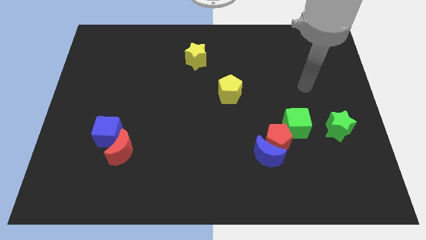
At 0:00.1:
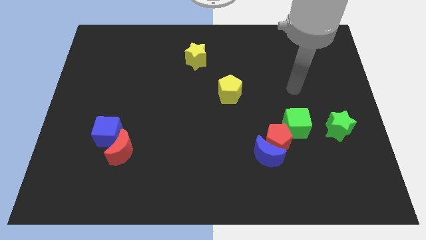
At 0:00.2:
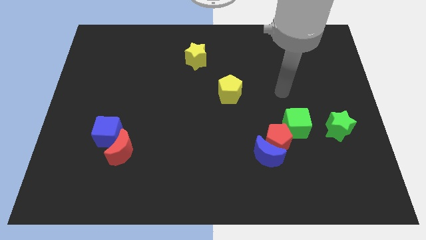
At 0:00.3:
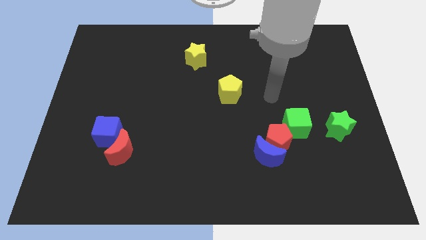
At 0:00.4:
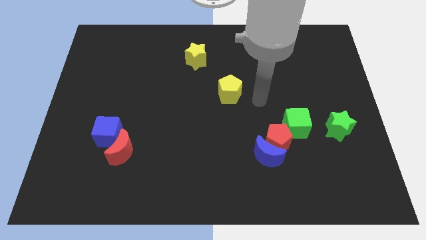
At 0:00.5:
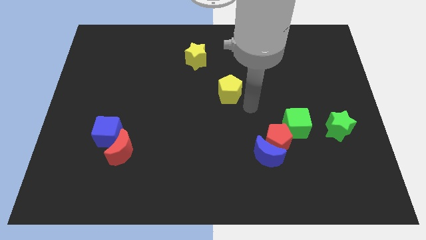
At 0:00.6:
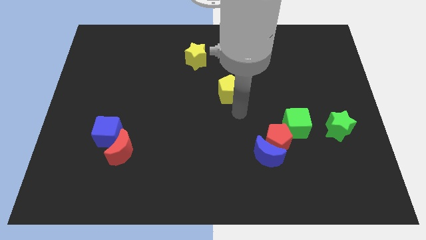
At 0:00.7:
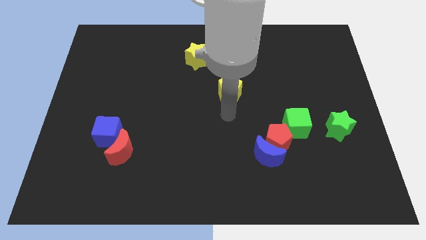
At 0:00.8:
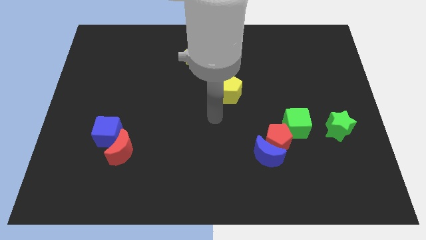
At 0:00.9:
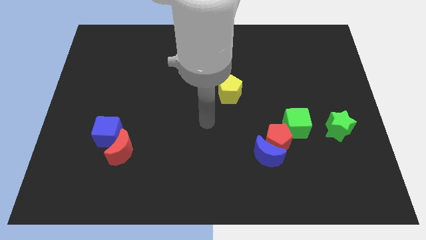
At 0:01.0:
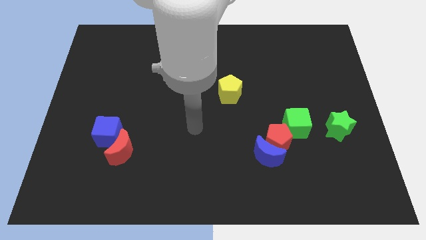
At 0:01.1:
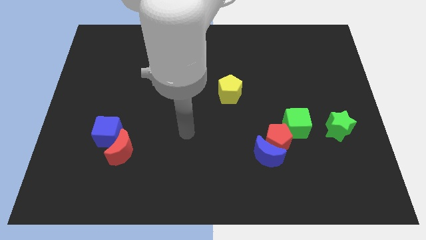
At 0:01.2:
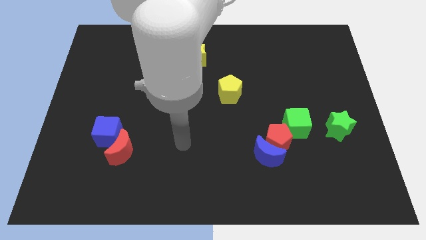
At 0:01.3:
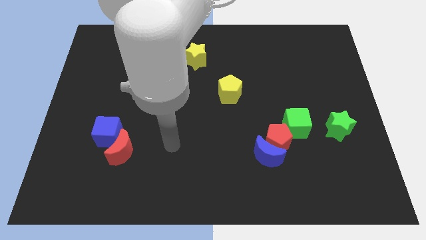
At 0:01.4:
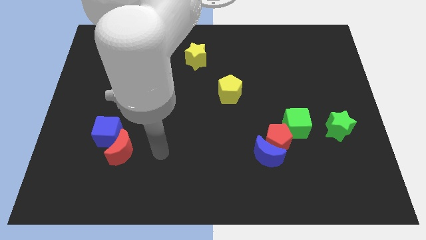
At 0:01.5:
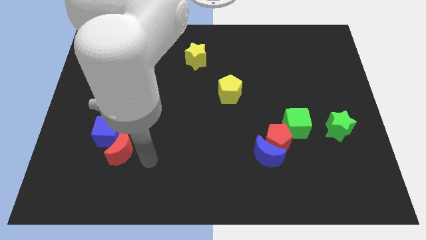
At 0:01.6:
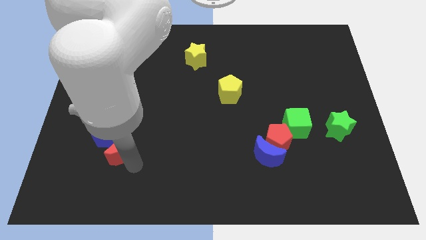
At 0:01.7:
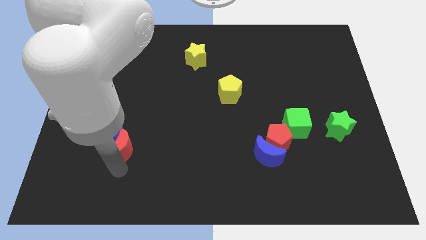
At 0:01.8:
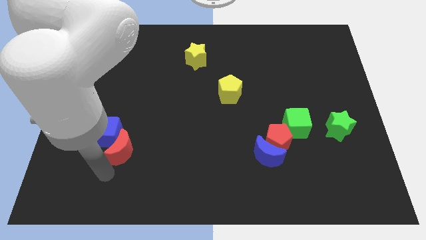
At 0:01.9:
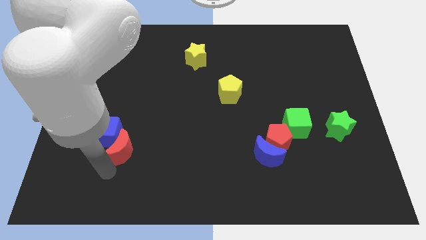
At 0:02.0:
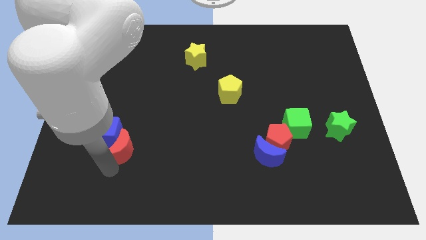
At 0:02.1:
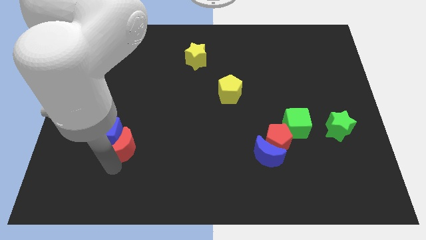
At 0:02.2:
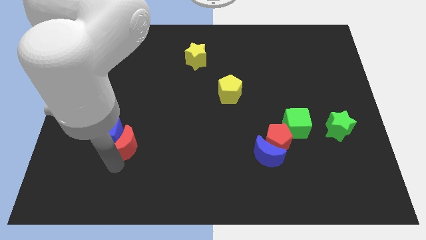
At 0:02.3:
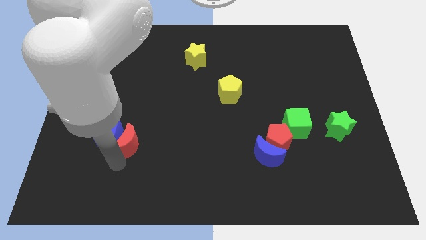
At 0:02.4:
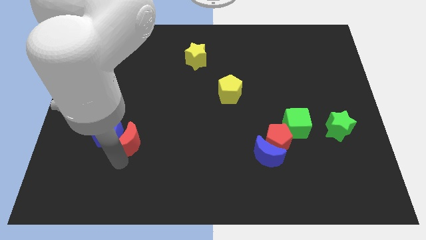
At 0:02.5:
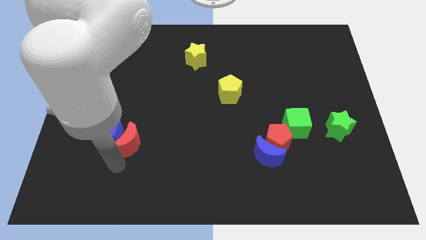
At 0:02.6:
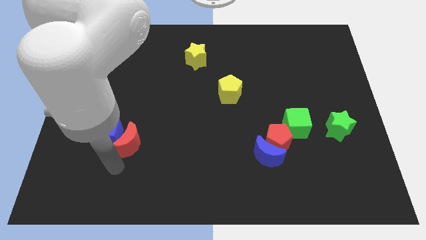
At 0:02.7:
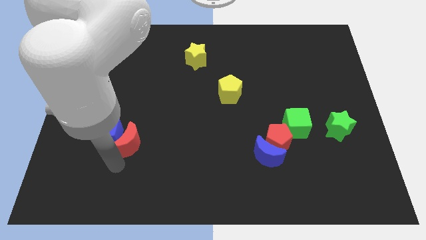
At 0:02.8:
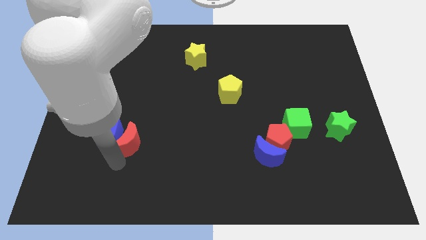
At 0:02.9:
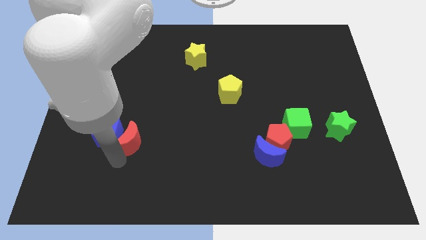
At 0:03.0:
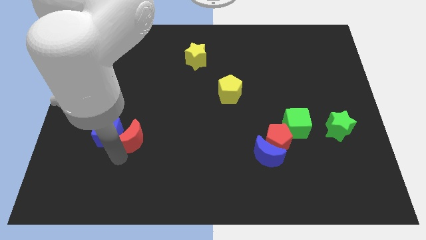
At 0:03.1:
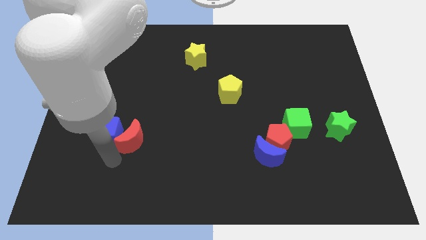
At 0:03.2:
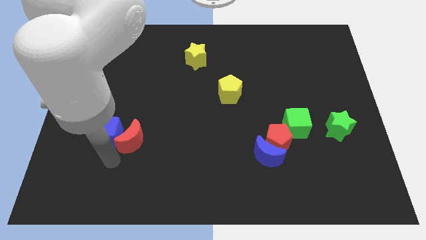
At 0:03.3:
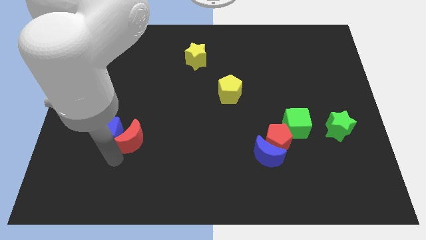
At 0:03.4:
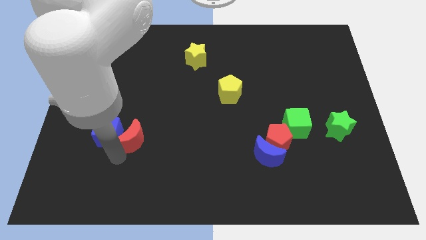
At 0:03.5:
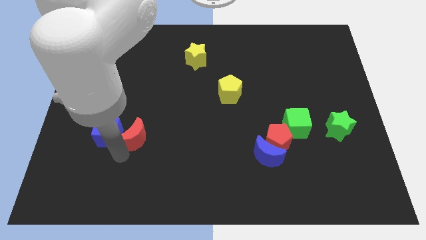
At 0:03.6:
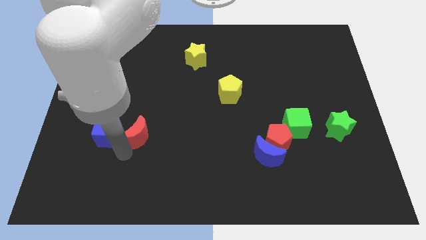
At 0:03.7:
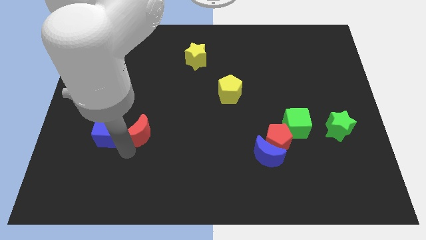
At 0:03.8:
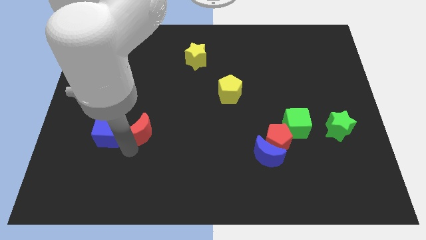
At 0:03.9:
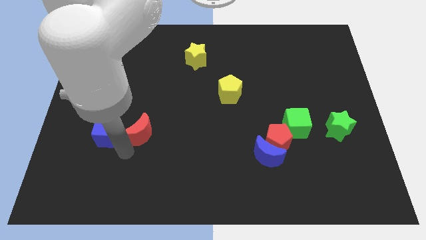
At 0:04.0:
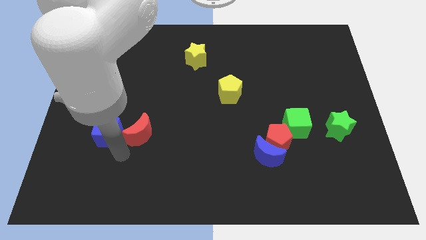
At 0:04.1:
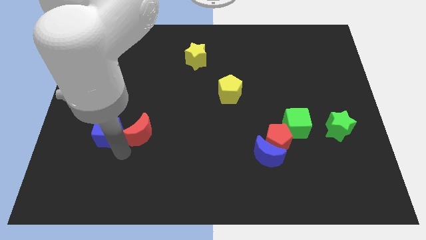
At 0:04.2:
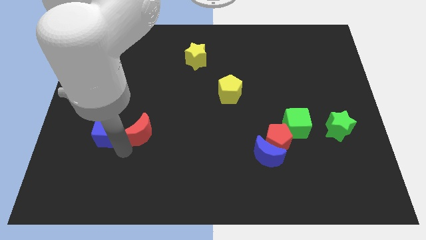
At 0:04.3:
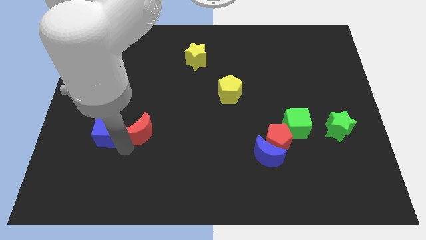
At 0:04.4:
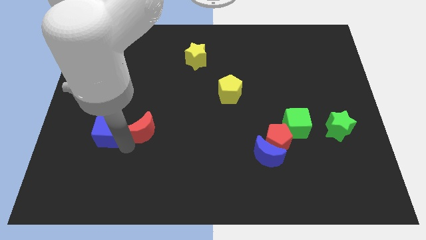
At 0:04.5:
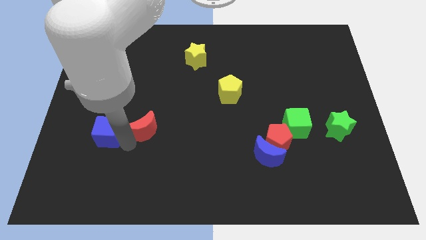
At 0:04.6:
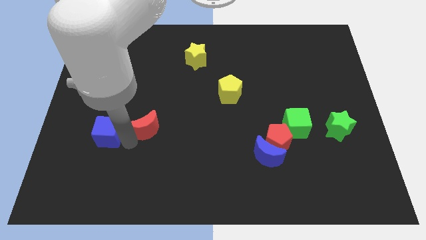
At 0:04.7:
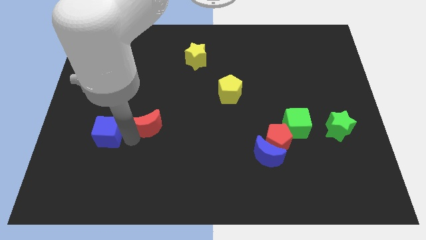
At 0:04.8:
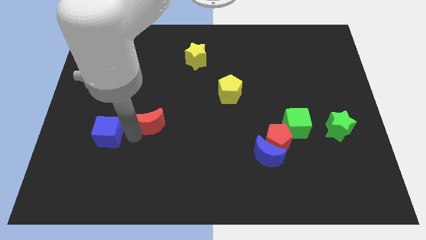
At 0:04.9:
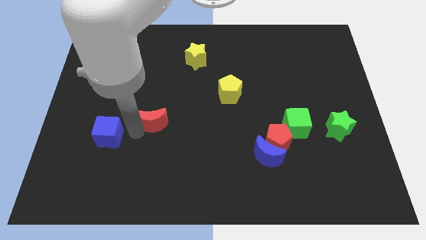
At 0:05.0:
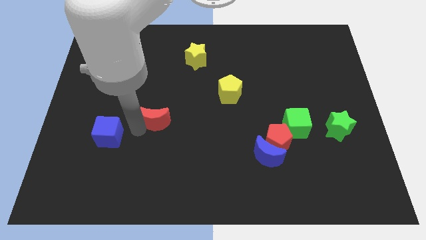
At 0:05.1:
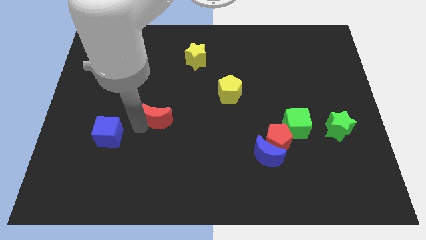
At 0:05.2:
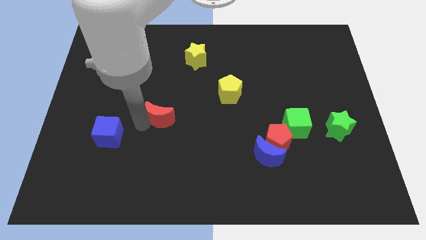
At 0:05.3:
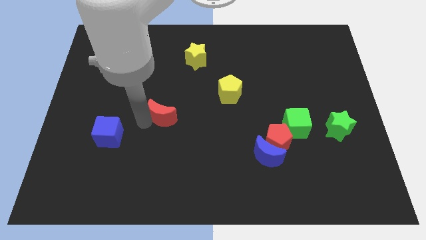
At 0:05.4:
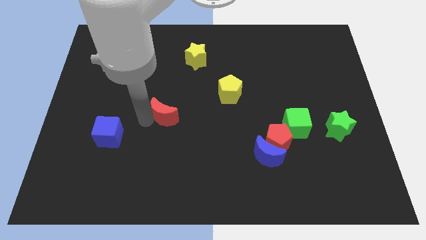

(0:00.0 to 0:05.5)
push the red moon to the middle

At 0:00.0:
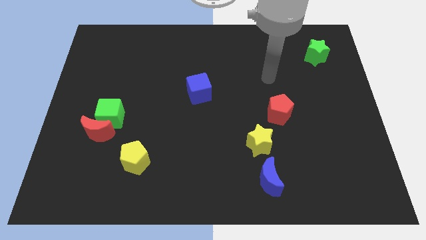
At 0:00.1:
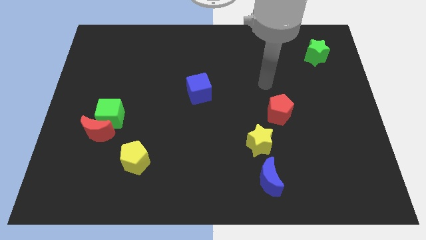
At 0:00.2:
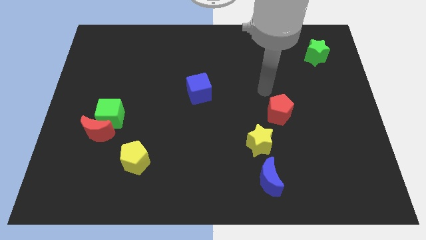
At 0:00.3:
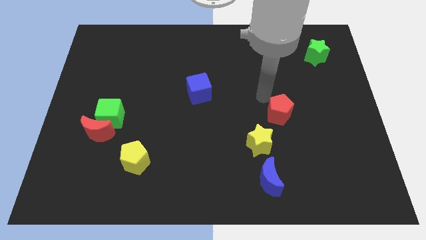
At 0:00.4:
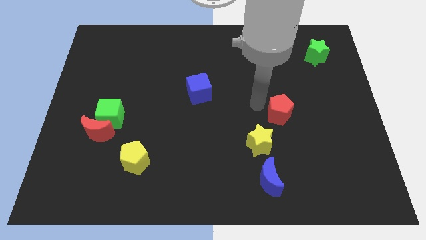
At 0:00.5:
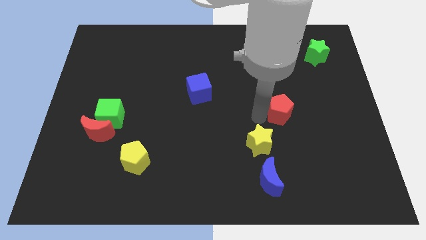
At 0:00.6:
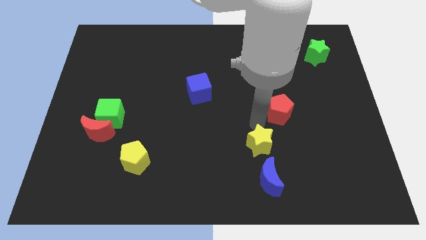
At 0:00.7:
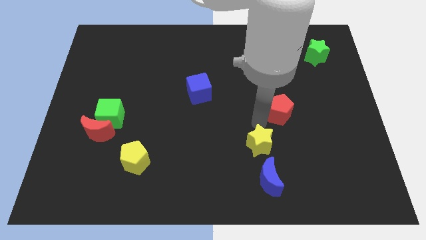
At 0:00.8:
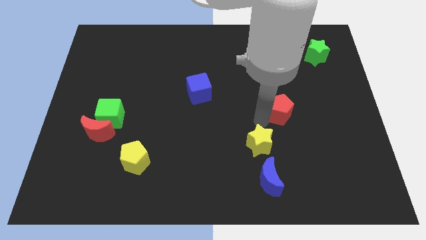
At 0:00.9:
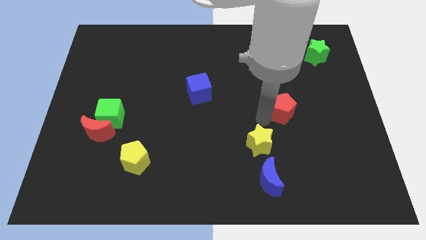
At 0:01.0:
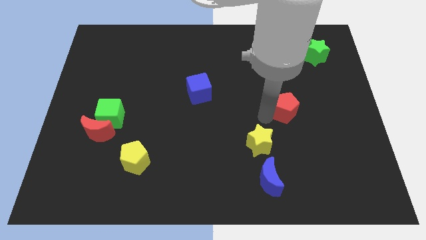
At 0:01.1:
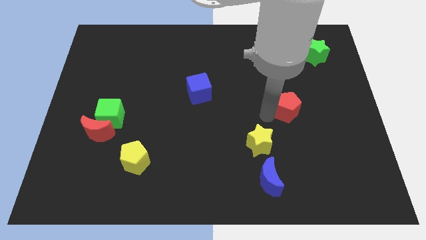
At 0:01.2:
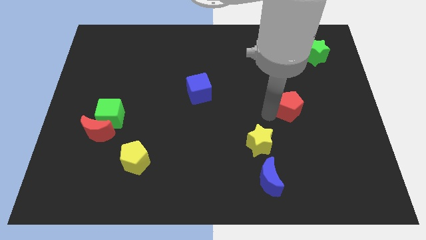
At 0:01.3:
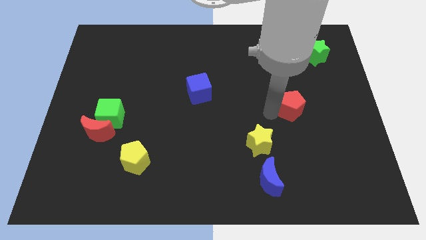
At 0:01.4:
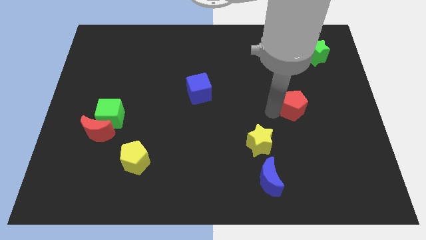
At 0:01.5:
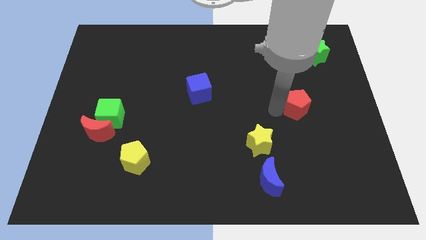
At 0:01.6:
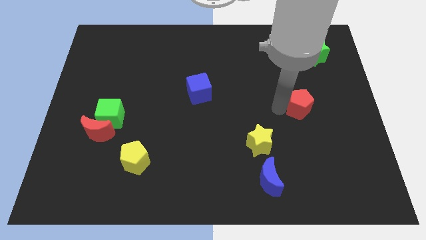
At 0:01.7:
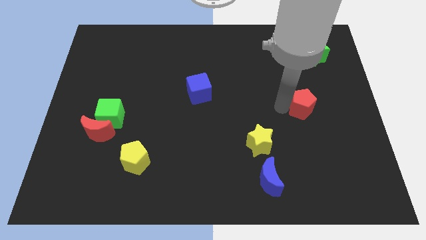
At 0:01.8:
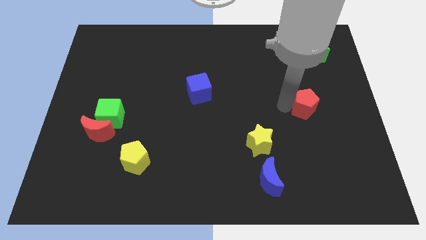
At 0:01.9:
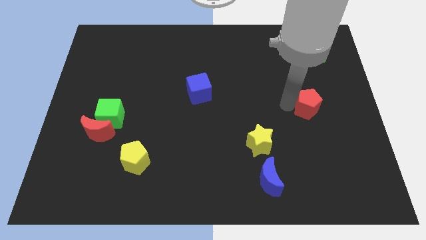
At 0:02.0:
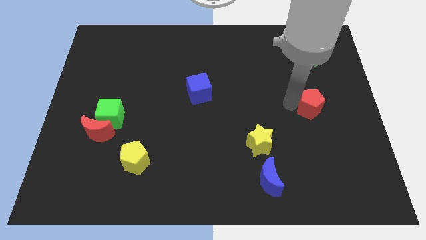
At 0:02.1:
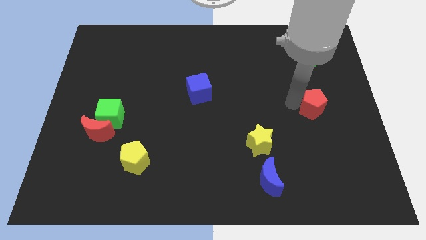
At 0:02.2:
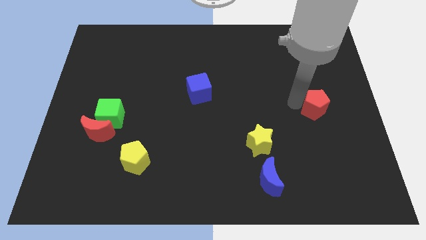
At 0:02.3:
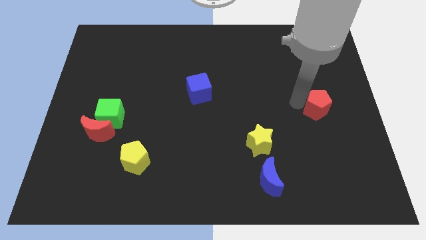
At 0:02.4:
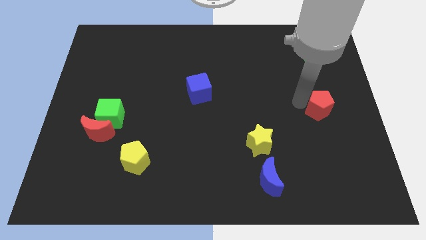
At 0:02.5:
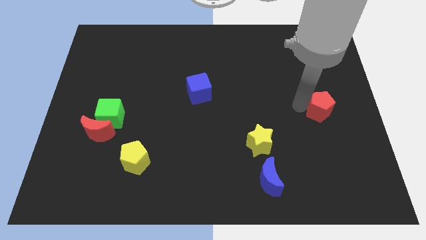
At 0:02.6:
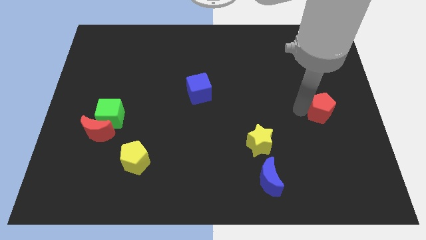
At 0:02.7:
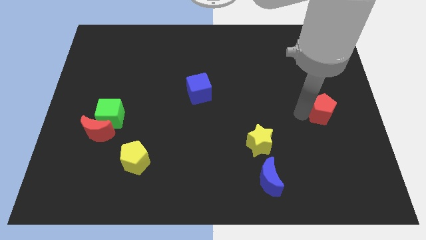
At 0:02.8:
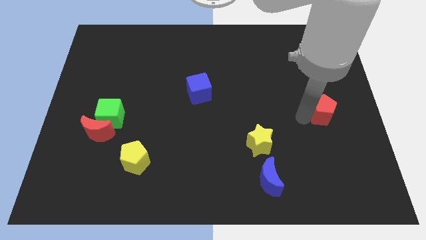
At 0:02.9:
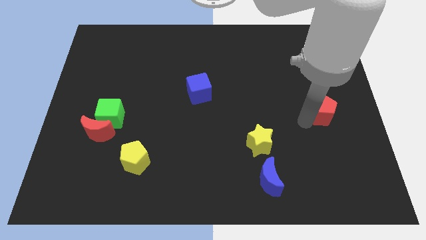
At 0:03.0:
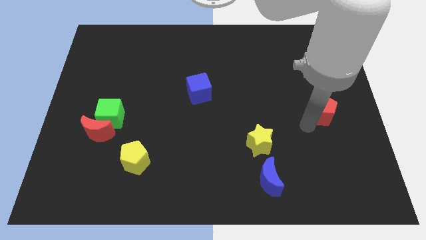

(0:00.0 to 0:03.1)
slide the red pentagon to the right side of the board
